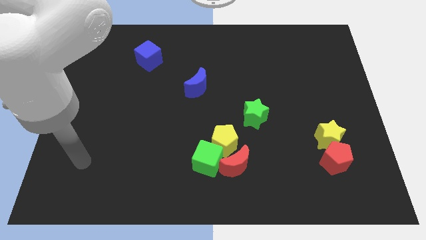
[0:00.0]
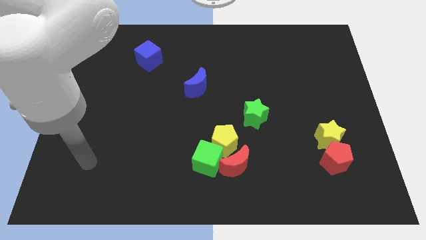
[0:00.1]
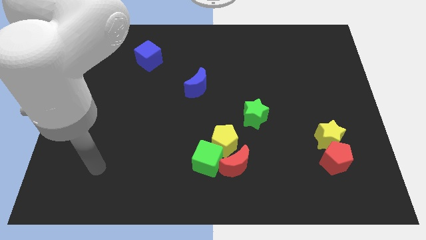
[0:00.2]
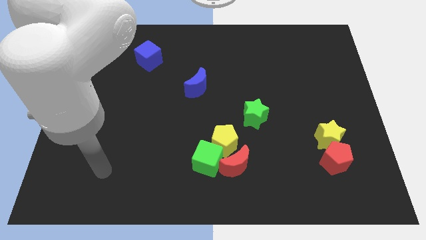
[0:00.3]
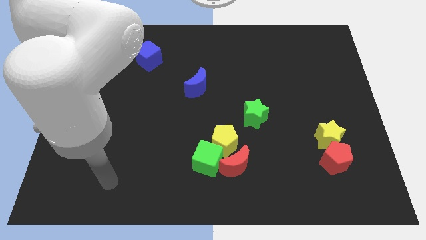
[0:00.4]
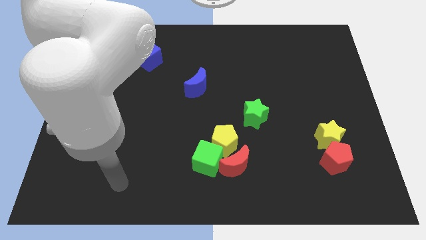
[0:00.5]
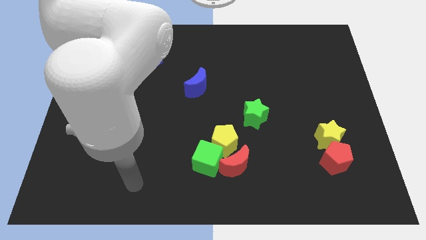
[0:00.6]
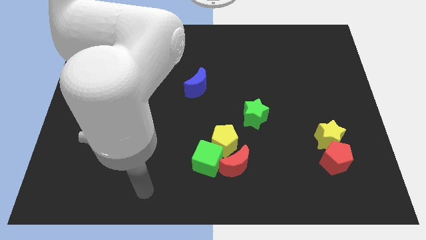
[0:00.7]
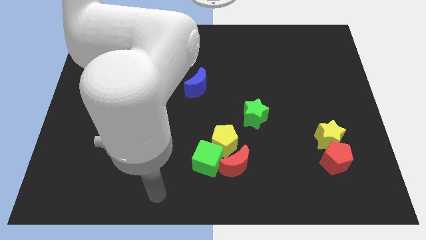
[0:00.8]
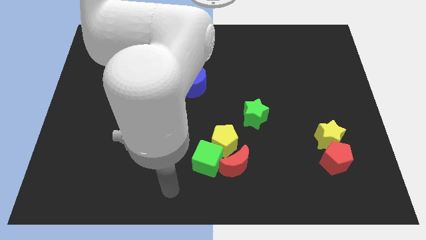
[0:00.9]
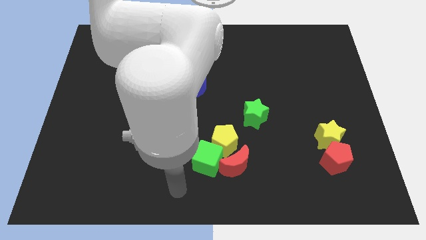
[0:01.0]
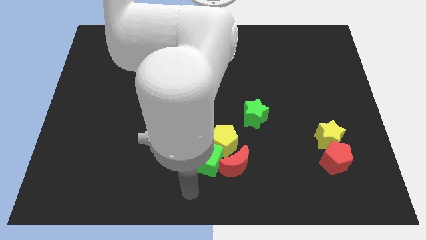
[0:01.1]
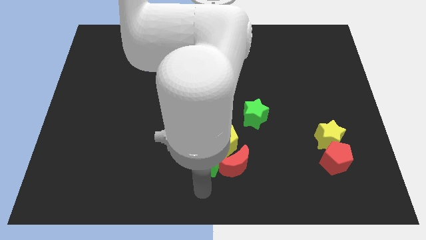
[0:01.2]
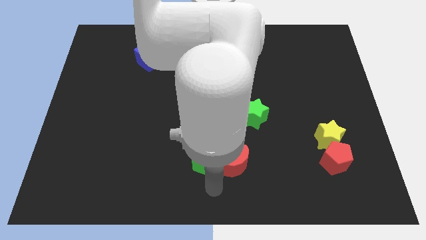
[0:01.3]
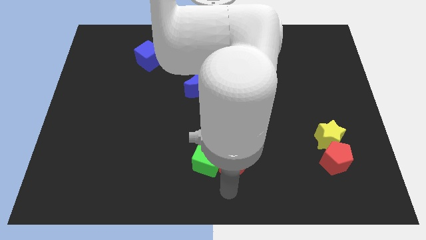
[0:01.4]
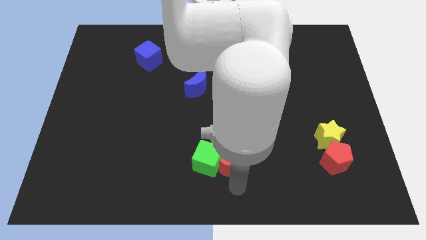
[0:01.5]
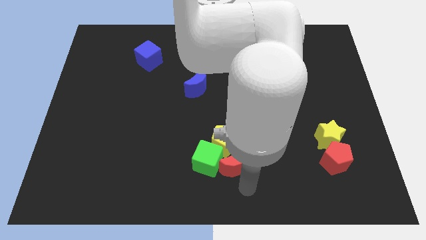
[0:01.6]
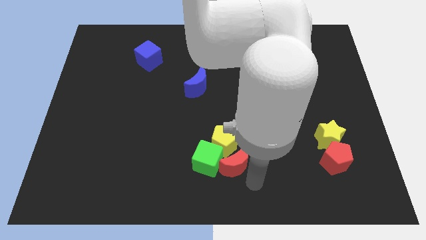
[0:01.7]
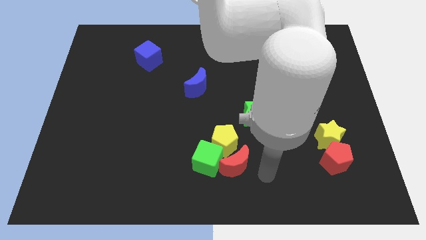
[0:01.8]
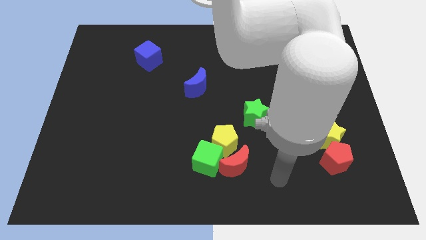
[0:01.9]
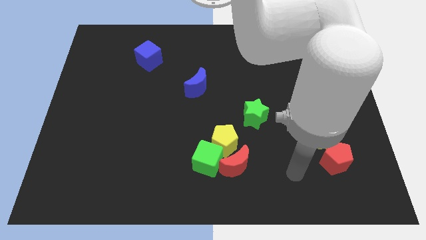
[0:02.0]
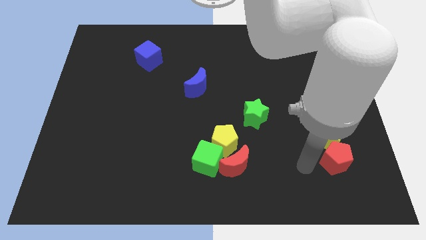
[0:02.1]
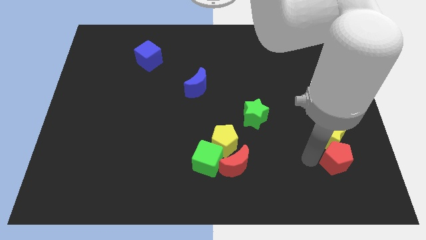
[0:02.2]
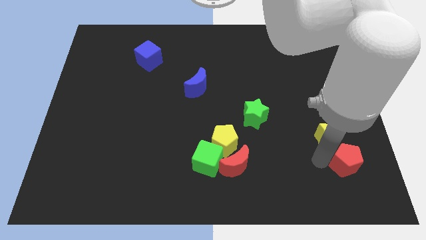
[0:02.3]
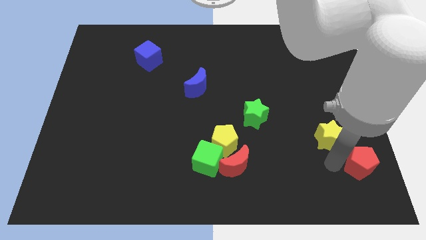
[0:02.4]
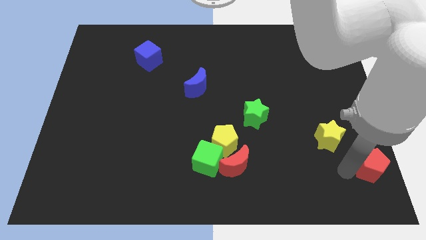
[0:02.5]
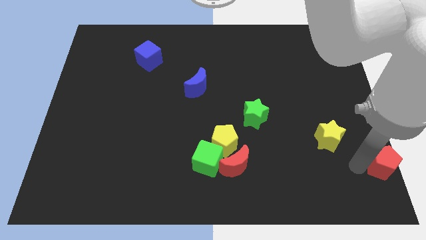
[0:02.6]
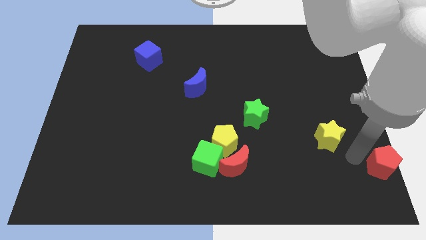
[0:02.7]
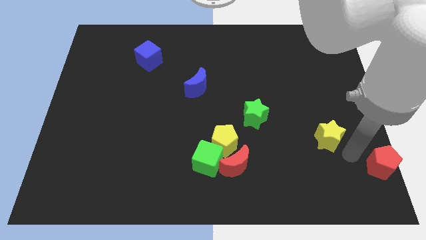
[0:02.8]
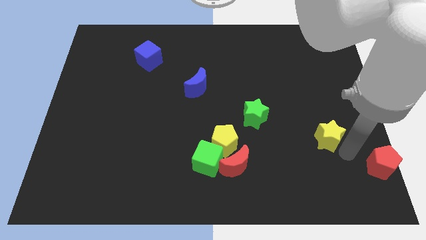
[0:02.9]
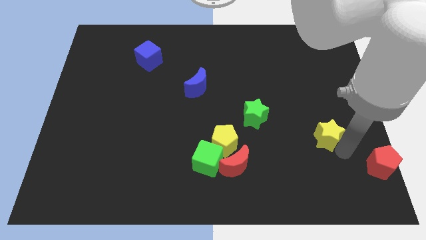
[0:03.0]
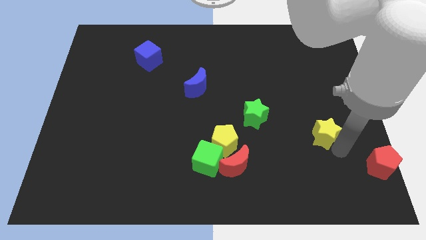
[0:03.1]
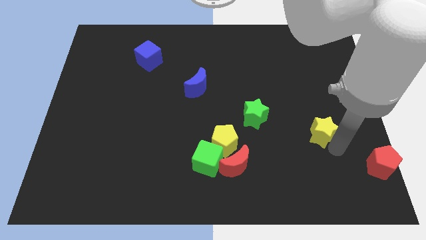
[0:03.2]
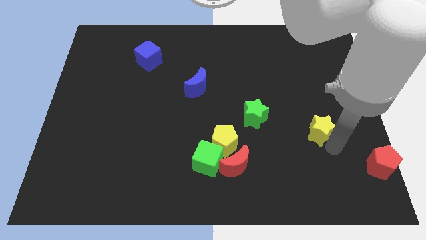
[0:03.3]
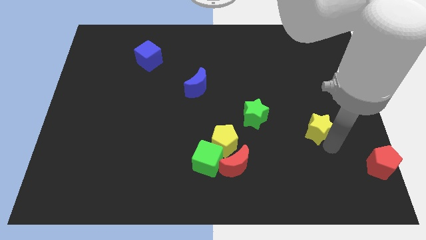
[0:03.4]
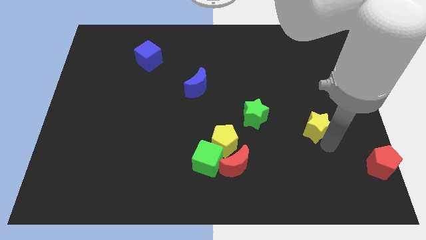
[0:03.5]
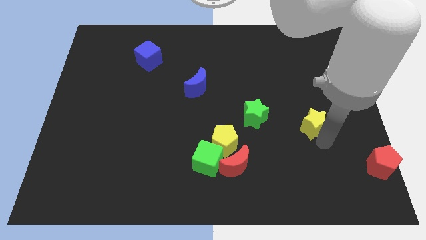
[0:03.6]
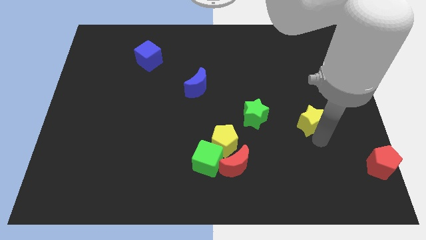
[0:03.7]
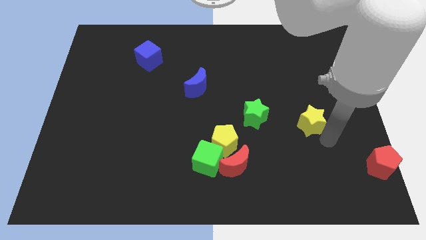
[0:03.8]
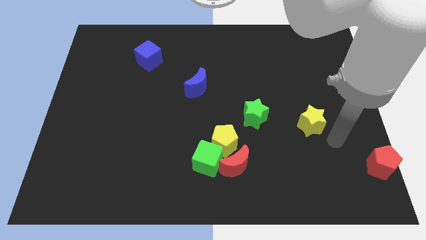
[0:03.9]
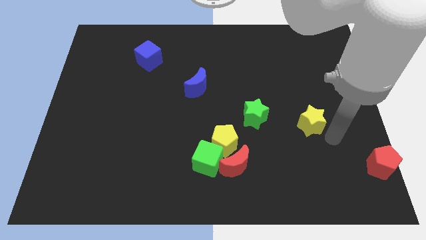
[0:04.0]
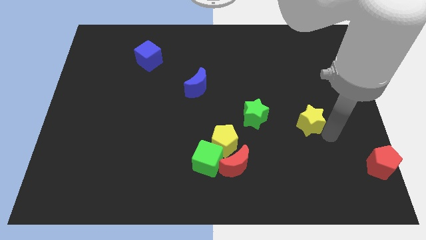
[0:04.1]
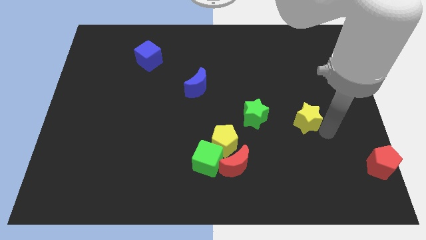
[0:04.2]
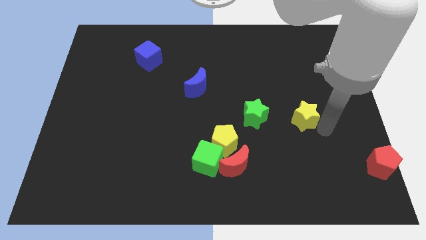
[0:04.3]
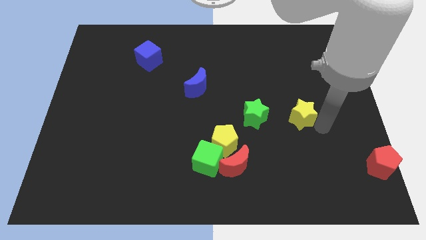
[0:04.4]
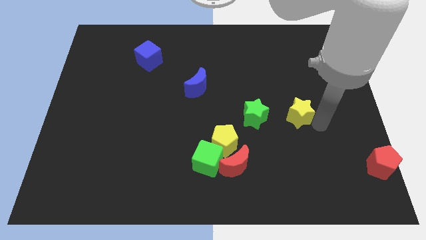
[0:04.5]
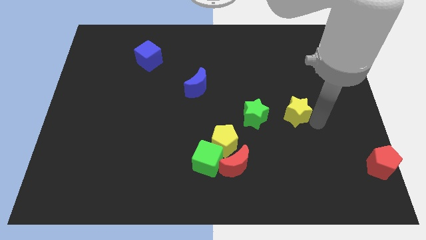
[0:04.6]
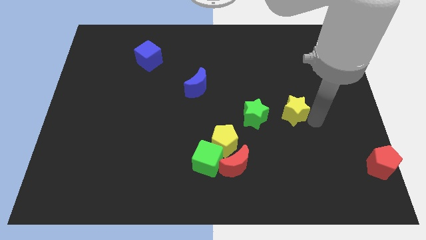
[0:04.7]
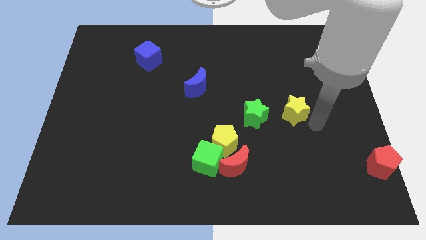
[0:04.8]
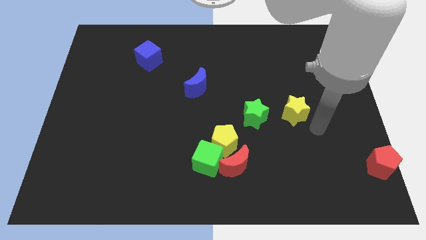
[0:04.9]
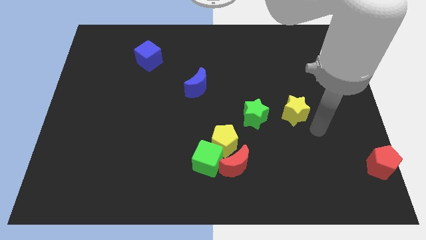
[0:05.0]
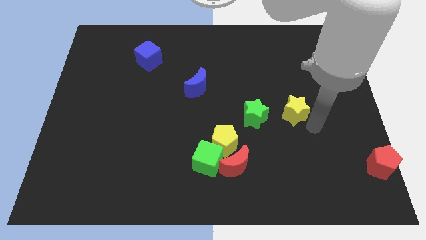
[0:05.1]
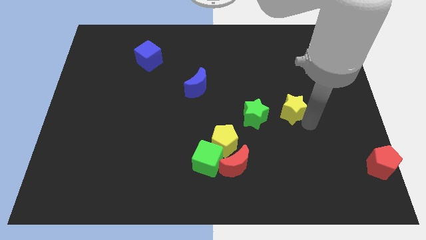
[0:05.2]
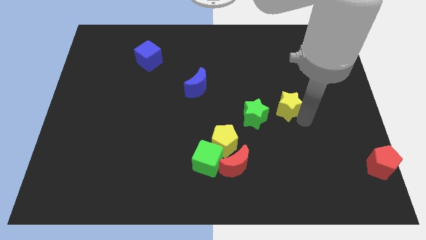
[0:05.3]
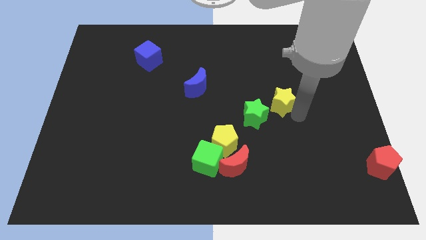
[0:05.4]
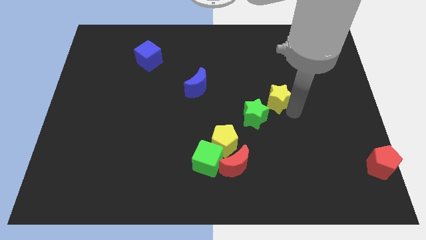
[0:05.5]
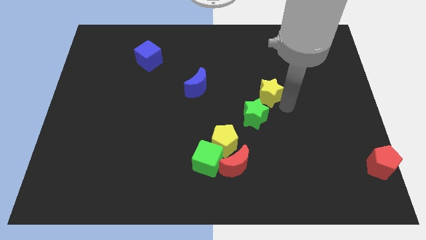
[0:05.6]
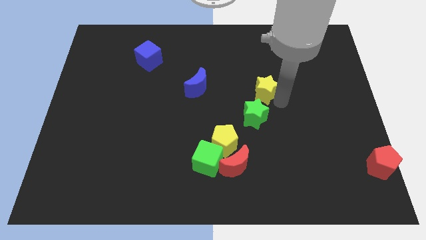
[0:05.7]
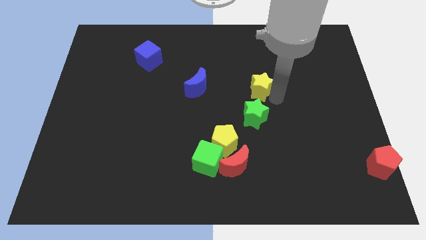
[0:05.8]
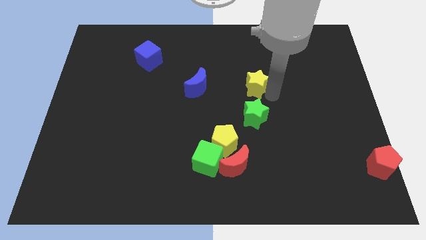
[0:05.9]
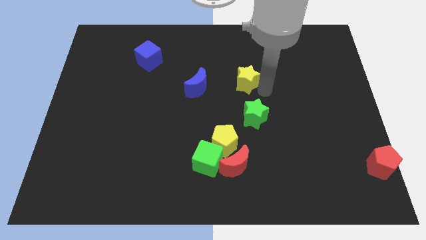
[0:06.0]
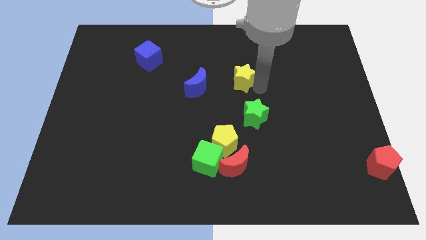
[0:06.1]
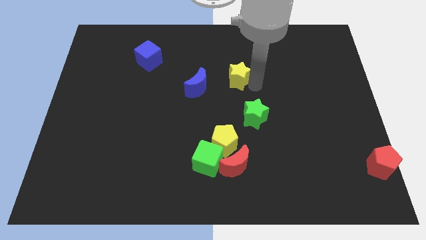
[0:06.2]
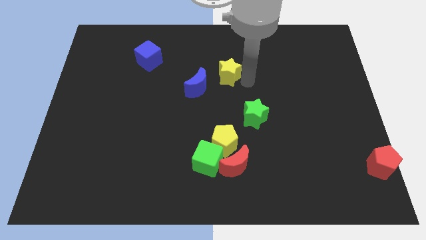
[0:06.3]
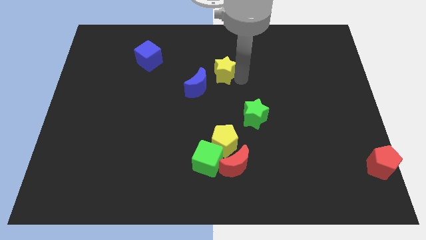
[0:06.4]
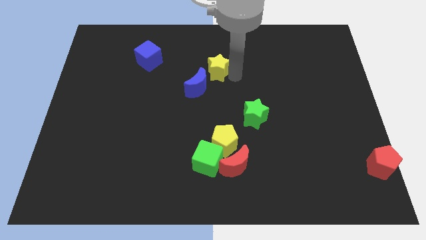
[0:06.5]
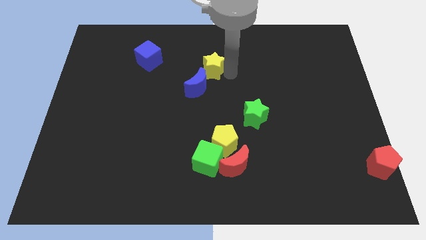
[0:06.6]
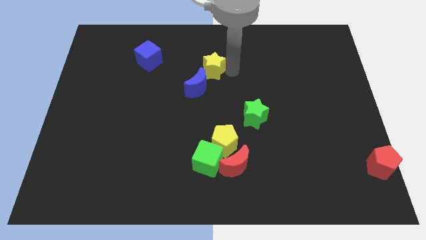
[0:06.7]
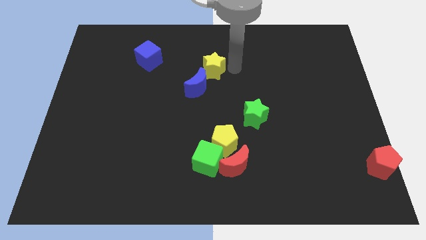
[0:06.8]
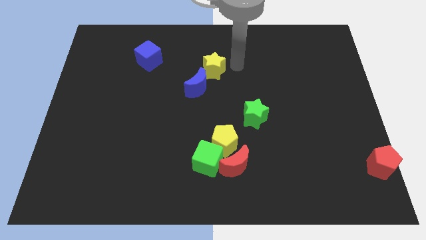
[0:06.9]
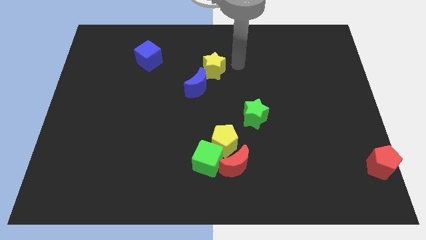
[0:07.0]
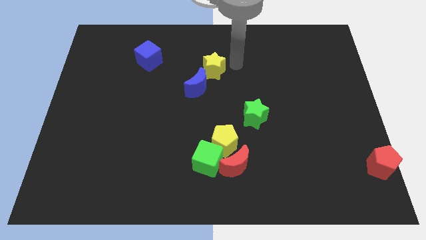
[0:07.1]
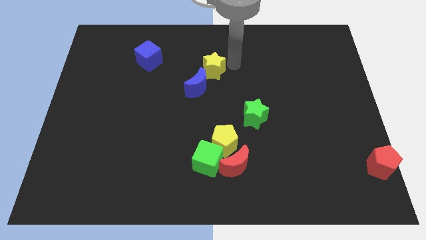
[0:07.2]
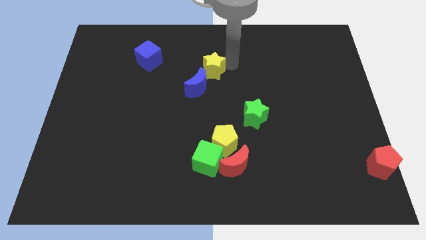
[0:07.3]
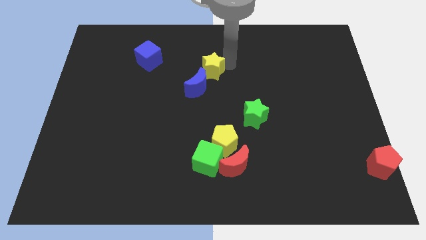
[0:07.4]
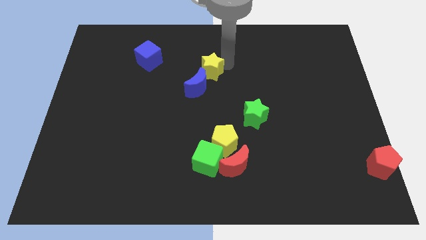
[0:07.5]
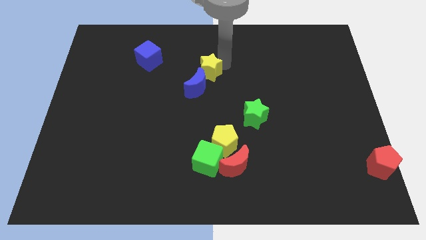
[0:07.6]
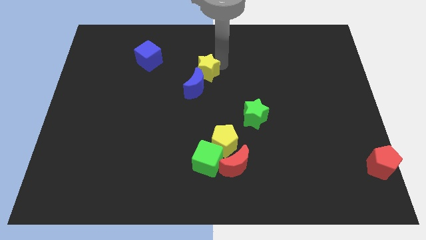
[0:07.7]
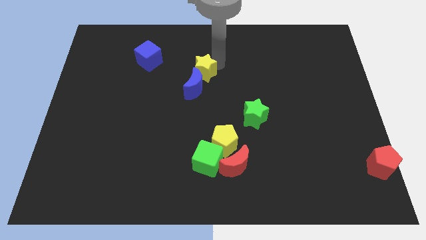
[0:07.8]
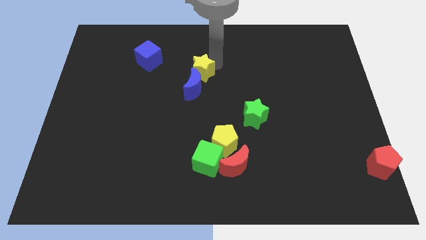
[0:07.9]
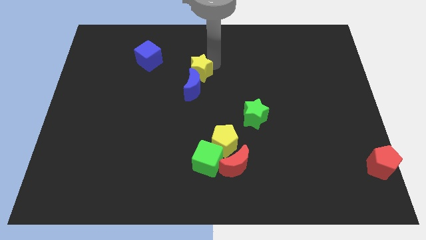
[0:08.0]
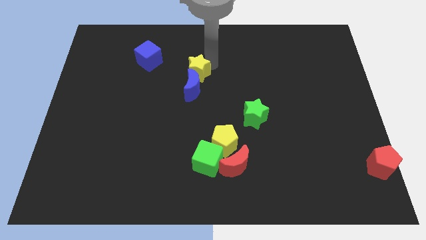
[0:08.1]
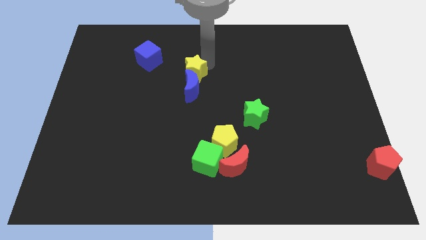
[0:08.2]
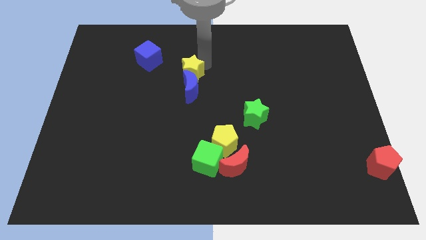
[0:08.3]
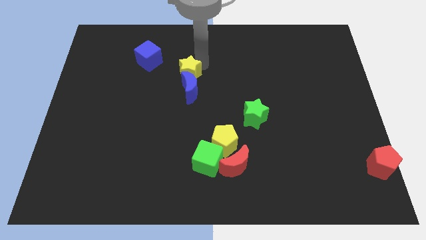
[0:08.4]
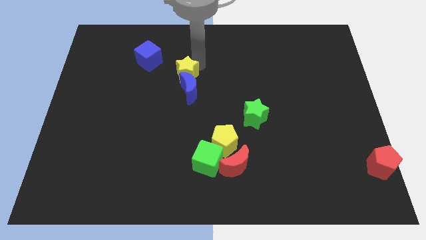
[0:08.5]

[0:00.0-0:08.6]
move the yellow star to the bottom right of the blue cube

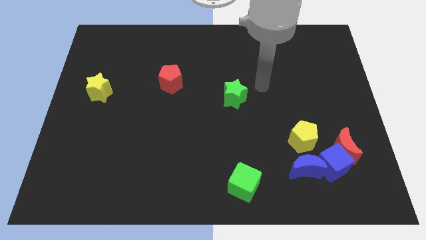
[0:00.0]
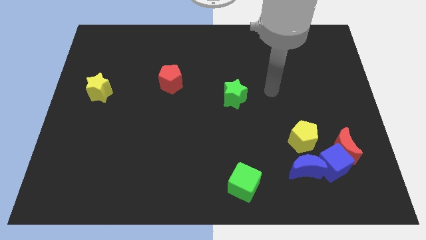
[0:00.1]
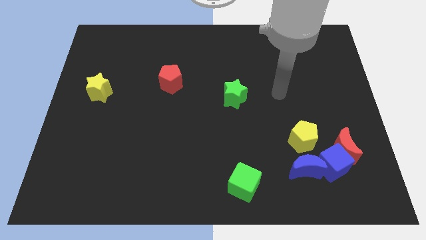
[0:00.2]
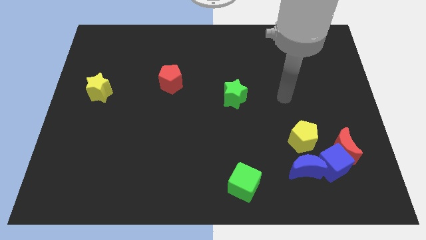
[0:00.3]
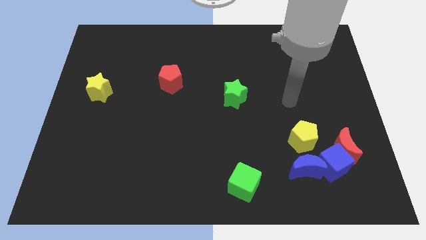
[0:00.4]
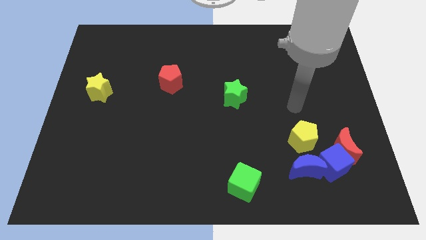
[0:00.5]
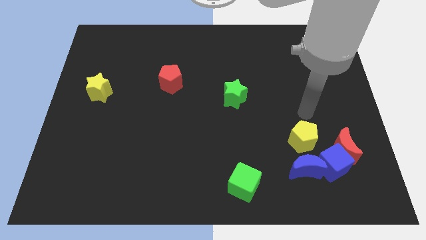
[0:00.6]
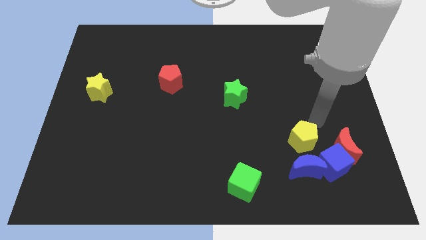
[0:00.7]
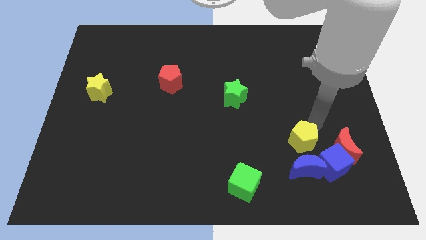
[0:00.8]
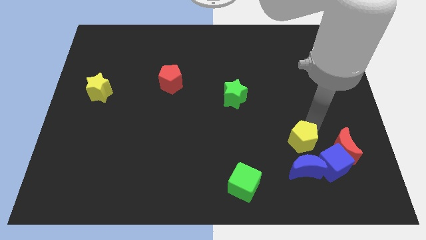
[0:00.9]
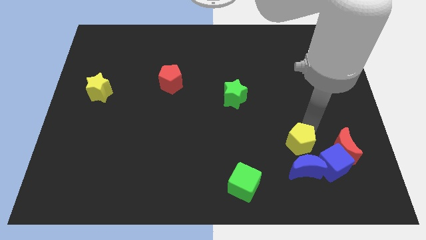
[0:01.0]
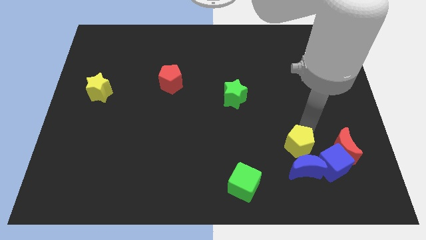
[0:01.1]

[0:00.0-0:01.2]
put the yellow pentagon left of the blue cube
